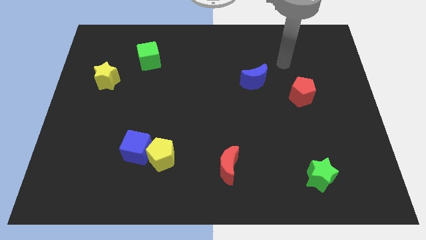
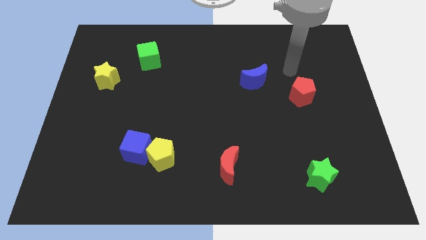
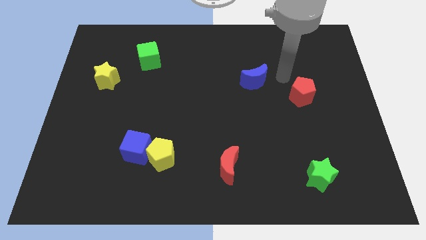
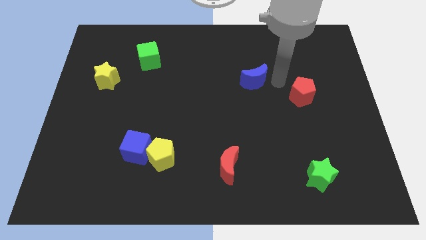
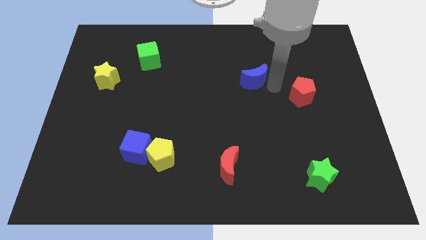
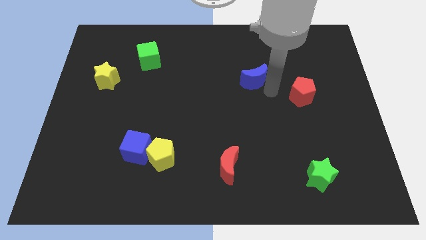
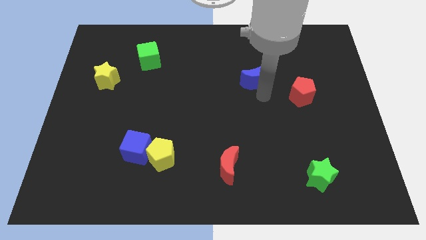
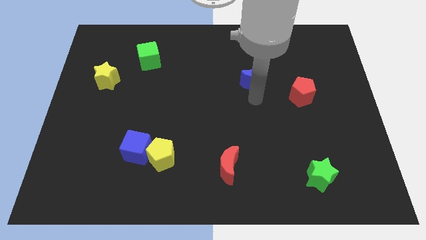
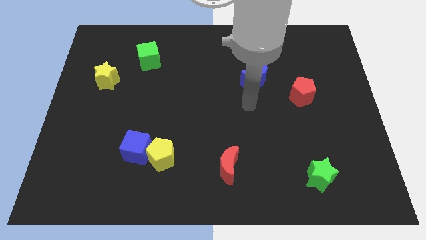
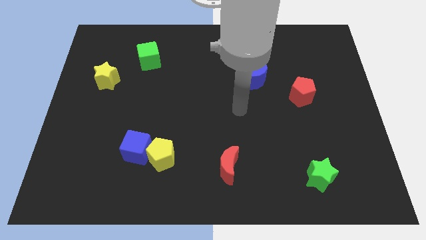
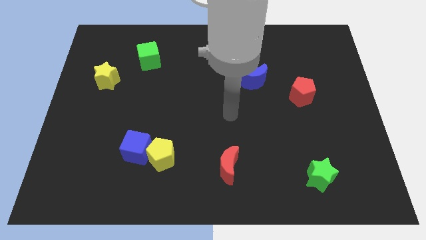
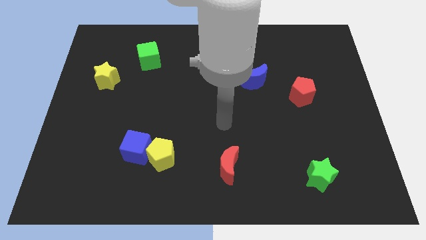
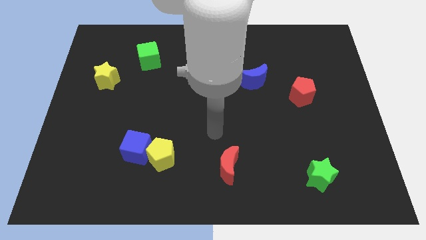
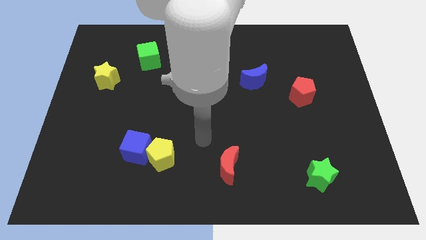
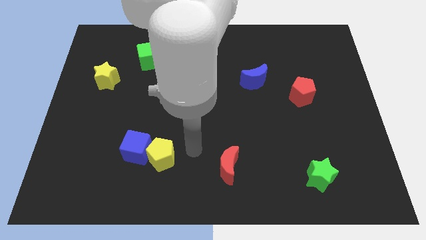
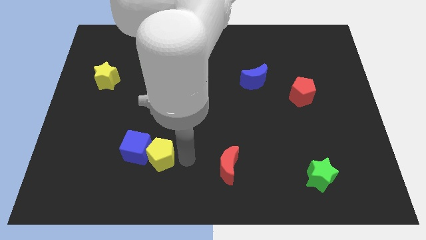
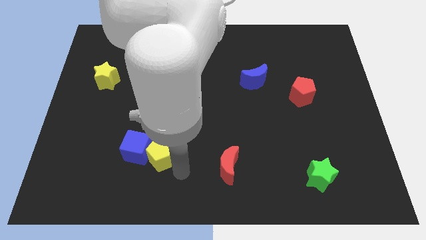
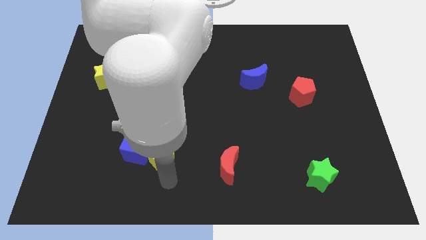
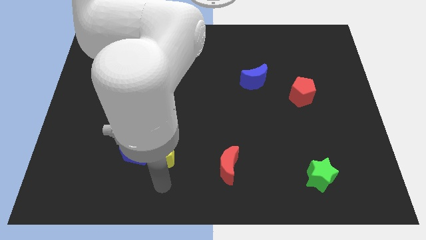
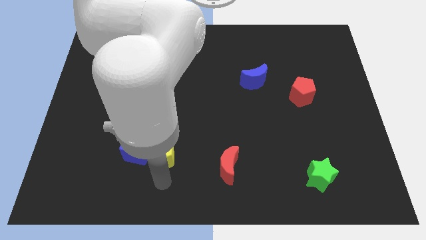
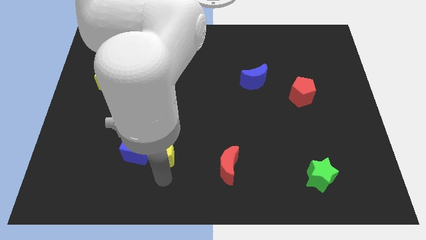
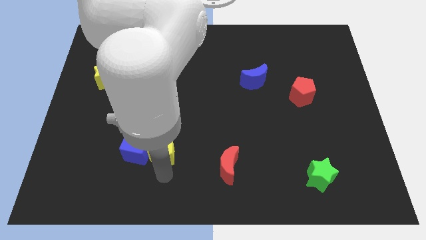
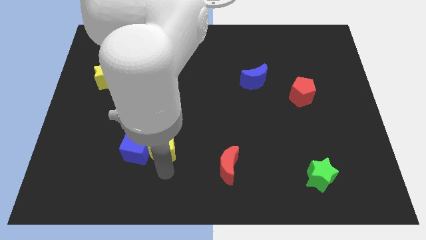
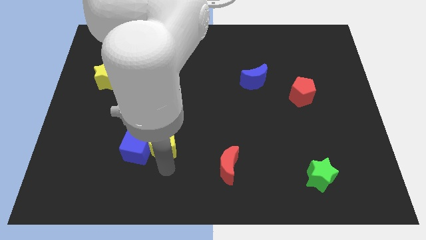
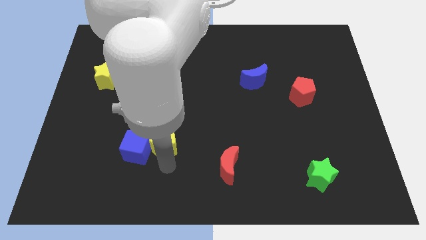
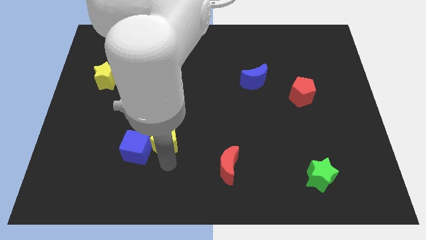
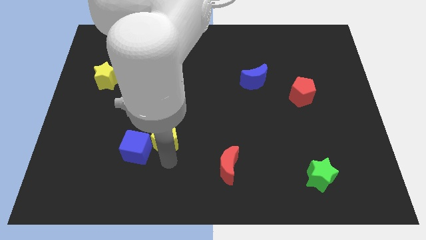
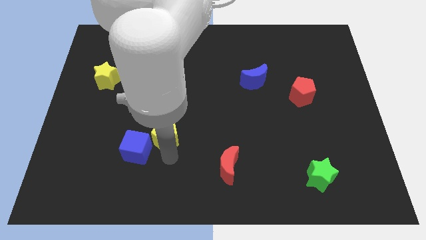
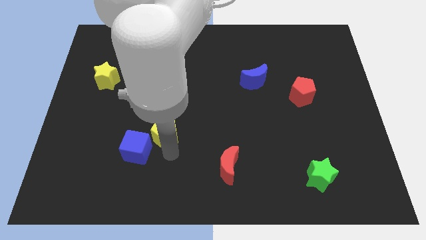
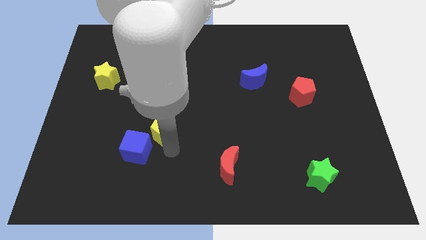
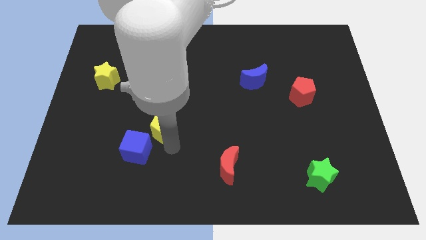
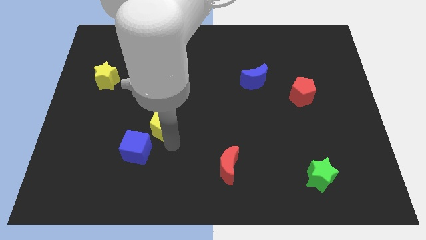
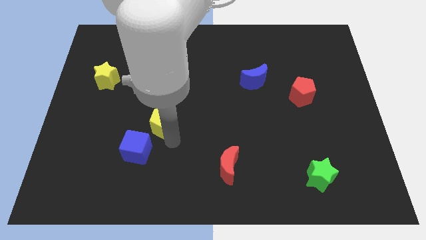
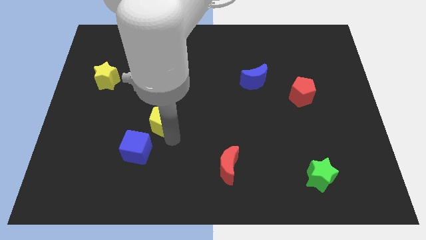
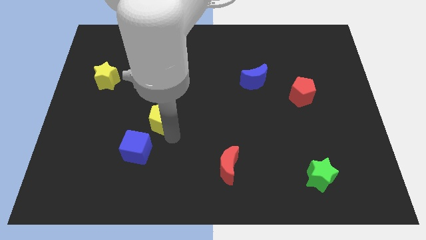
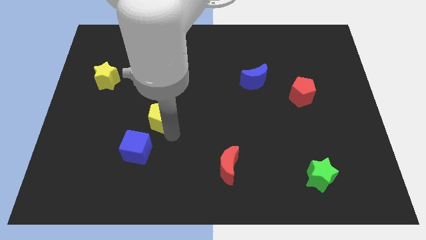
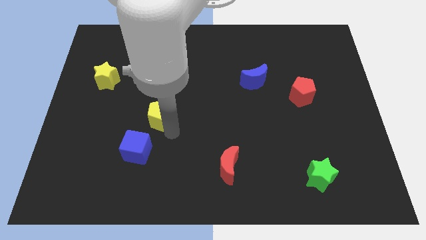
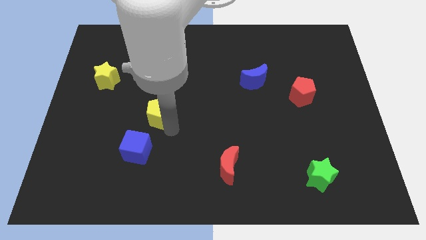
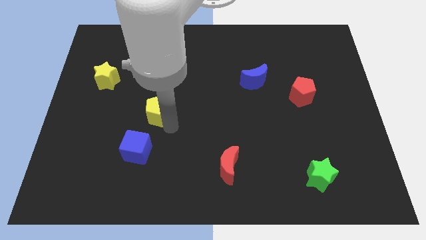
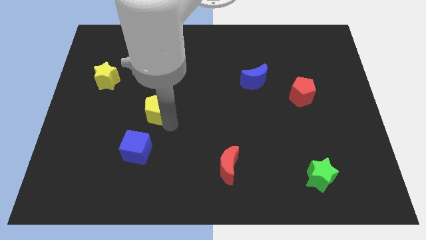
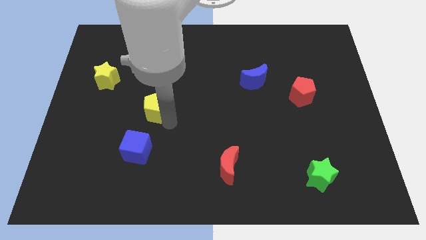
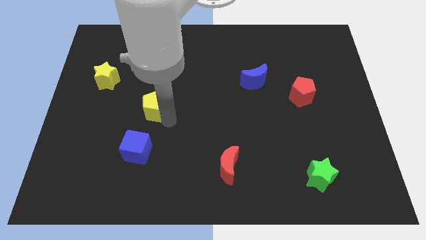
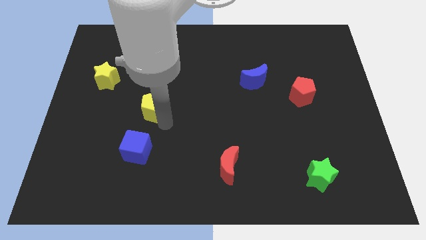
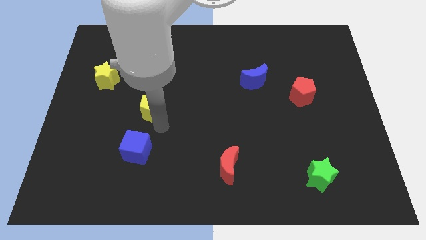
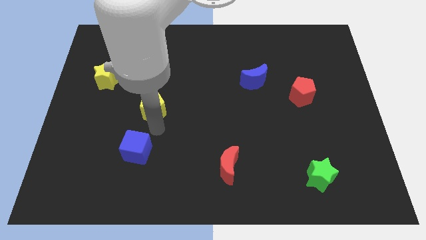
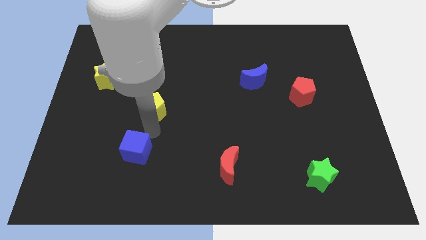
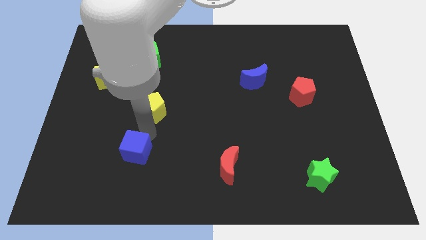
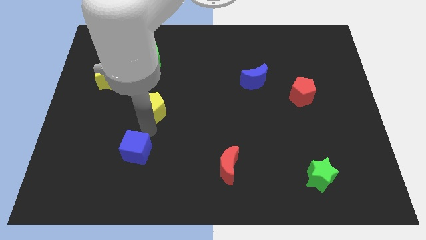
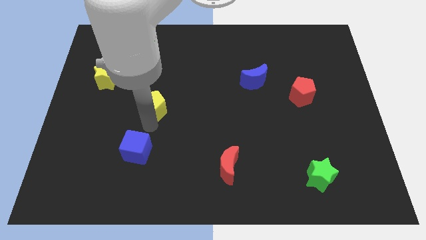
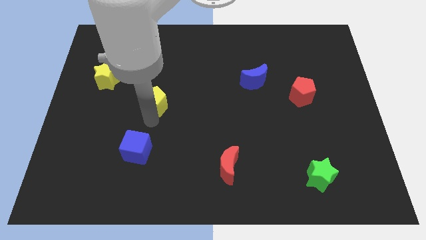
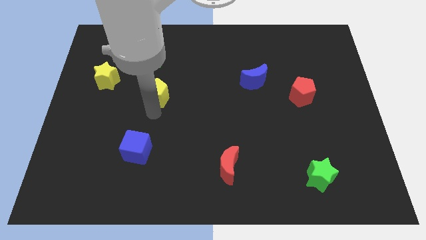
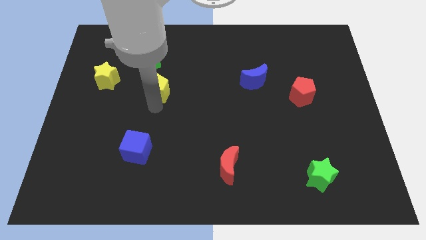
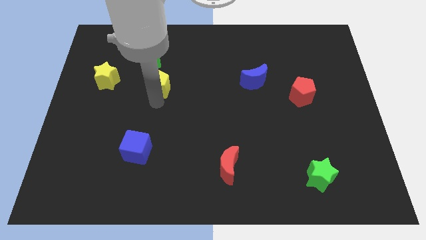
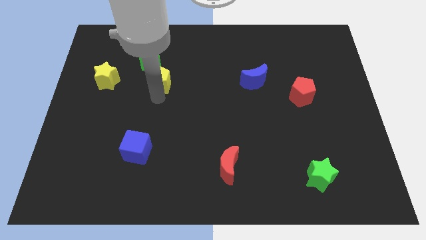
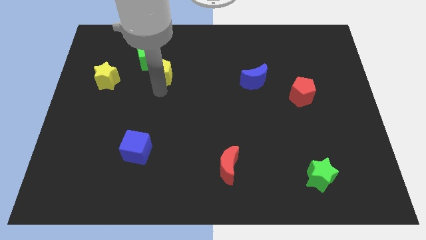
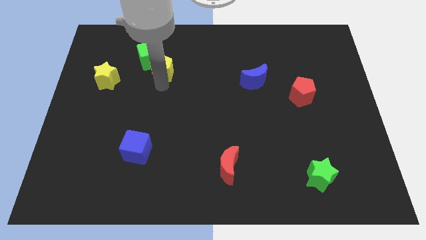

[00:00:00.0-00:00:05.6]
put the yellow pentagon towards the green cube

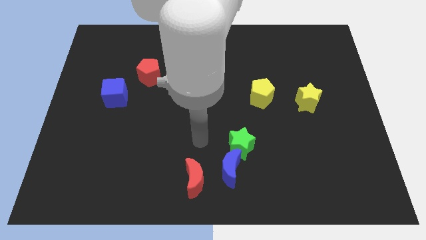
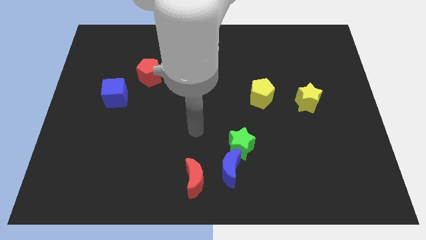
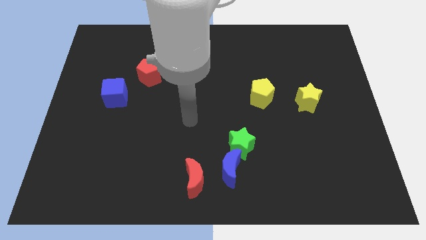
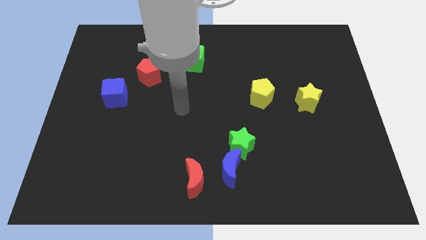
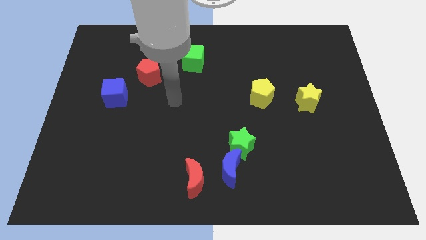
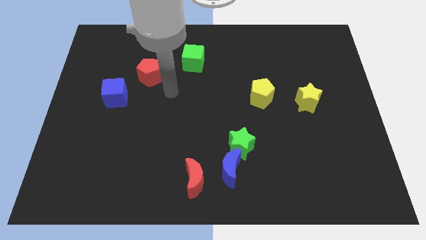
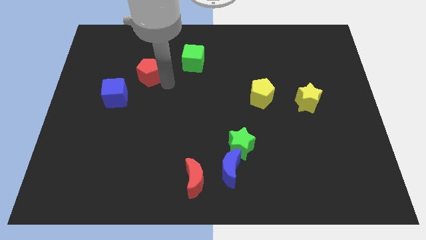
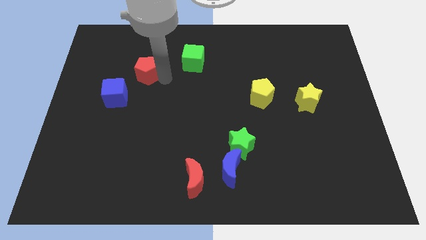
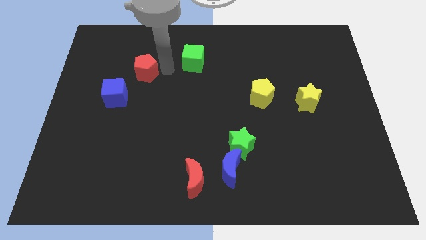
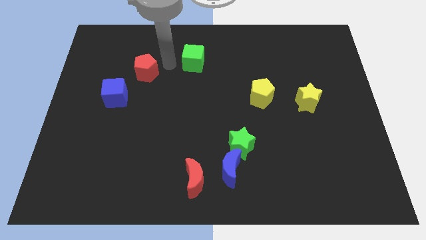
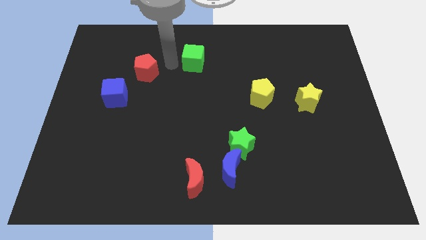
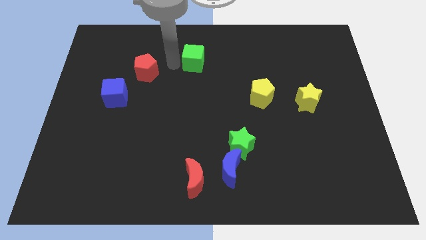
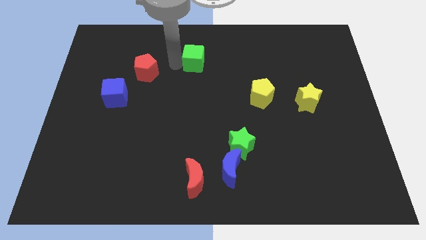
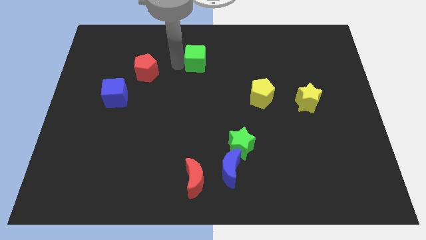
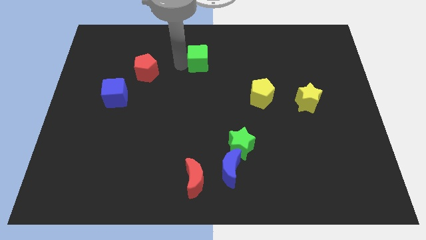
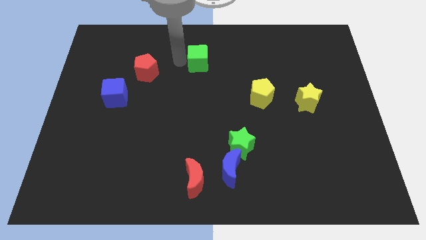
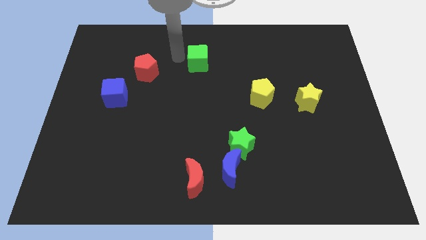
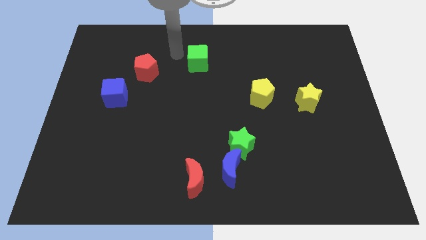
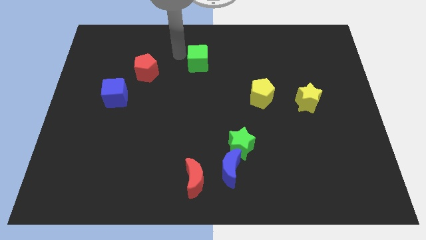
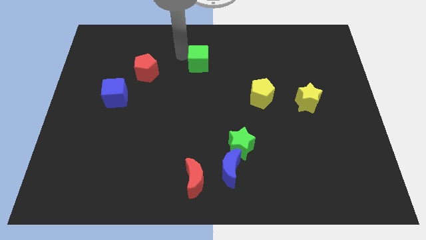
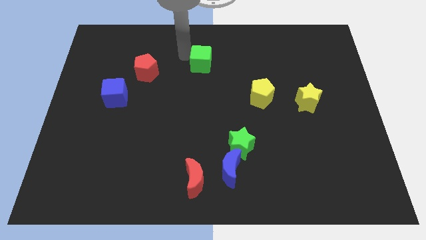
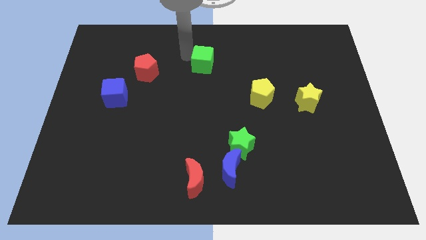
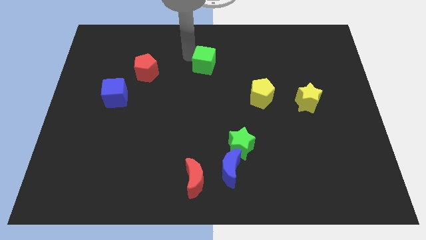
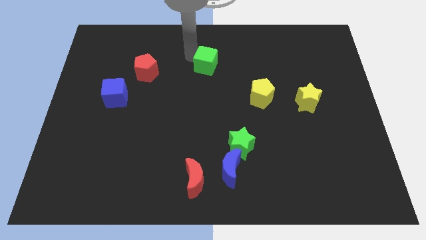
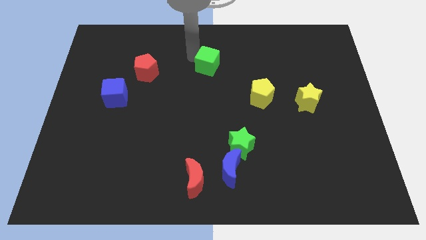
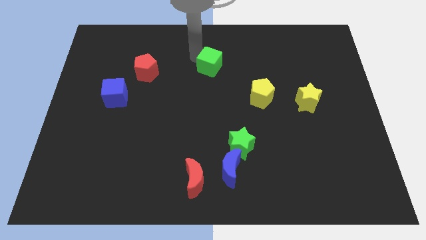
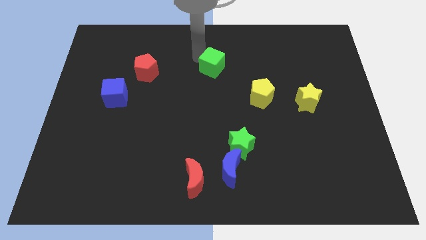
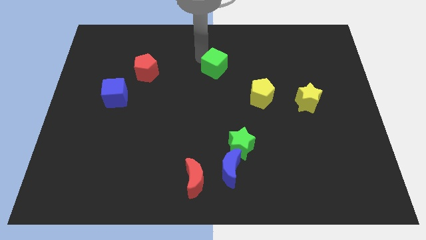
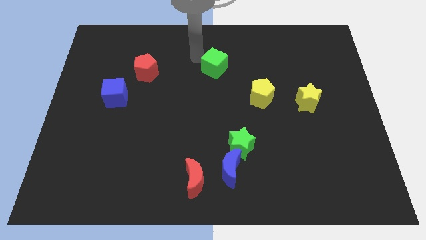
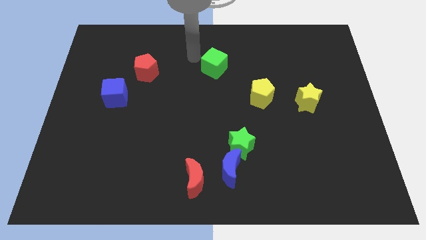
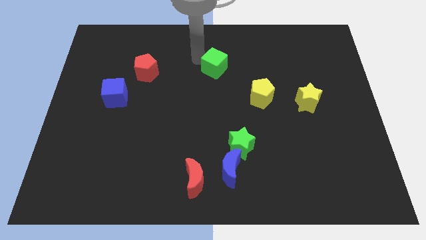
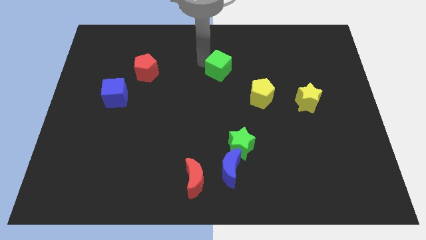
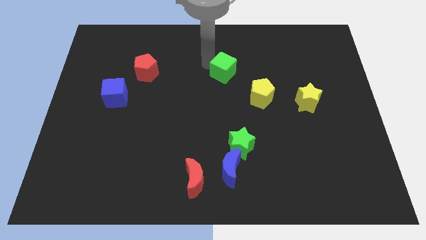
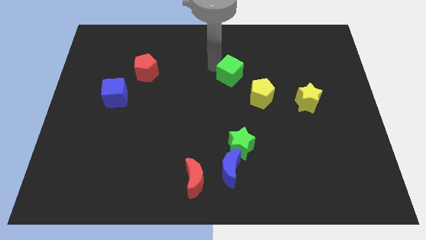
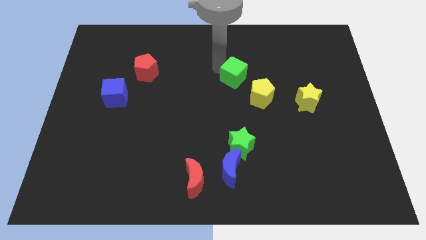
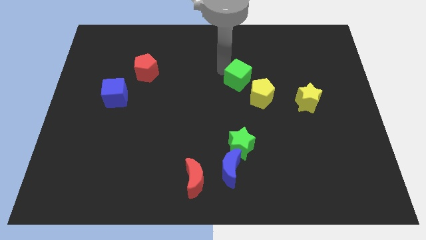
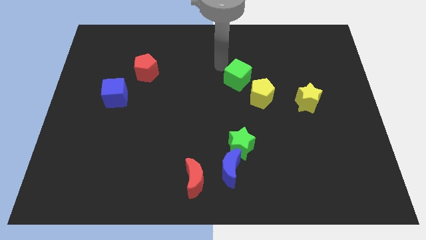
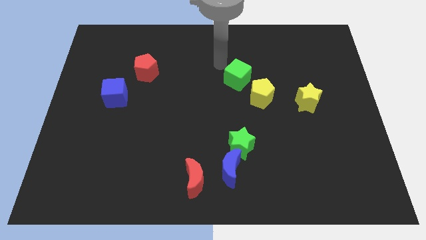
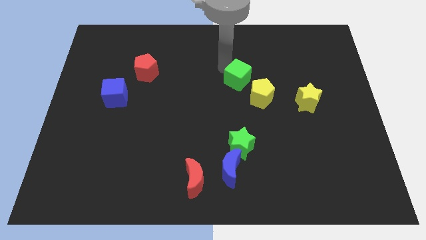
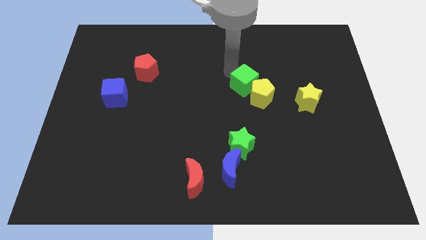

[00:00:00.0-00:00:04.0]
push the green cube to the yellow pentagon
